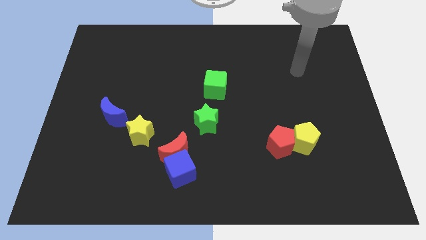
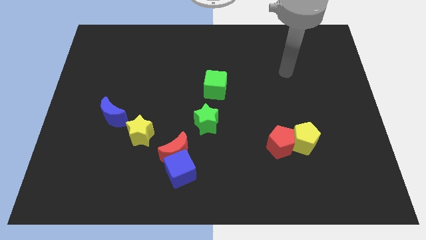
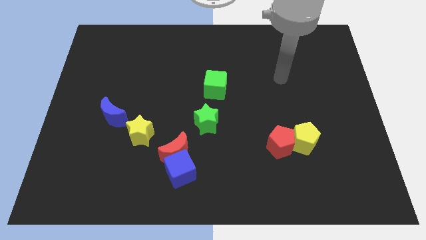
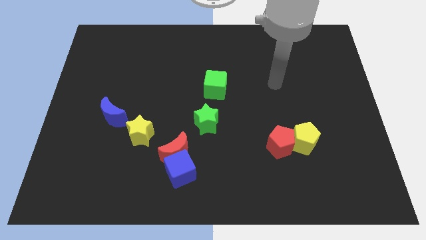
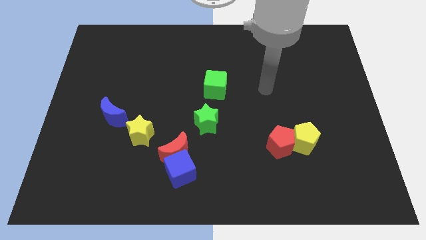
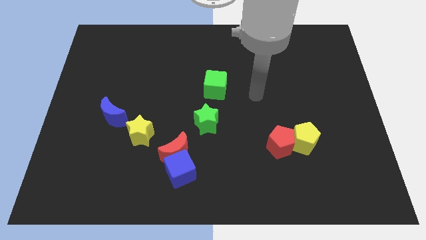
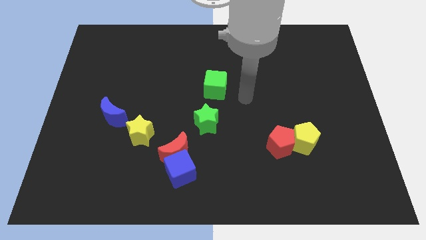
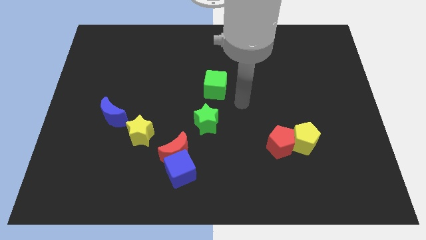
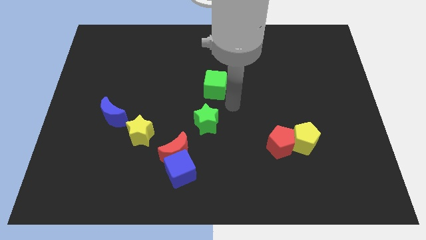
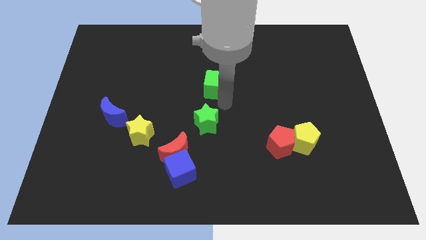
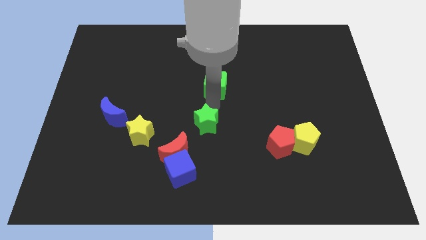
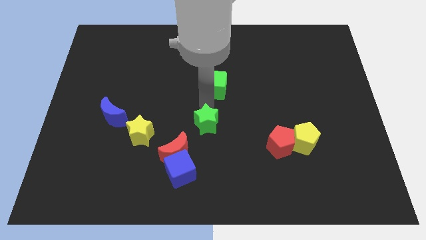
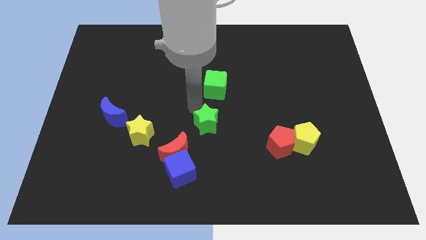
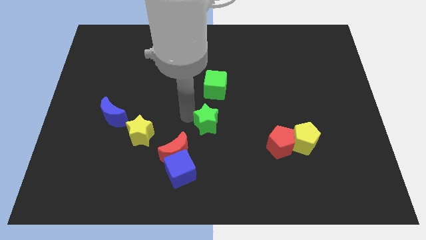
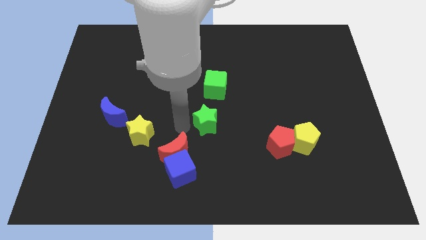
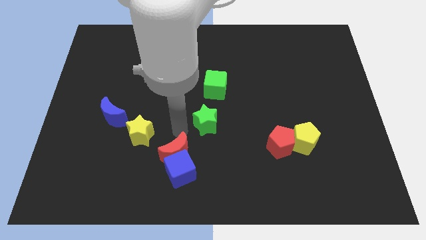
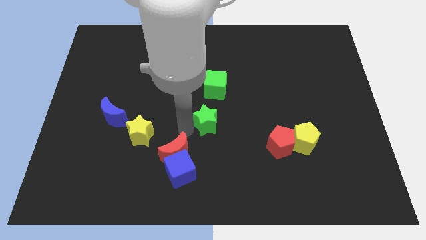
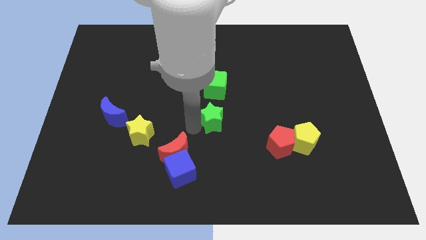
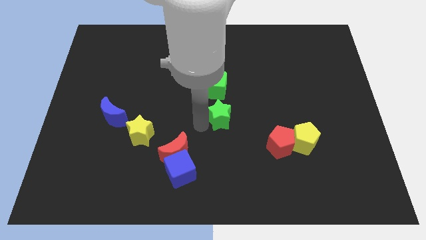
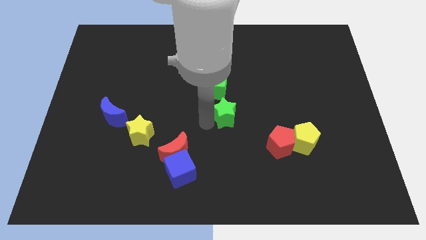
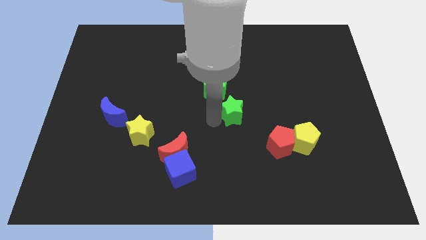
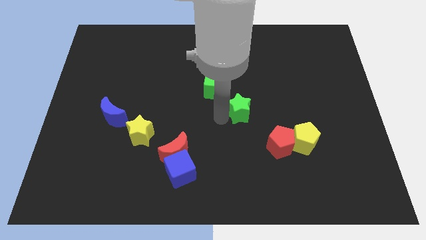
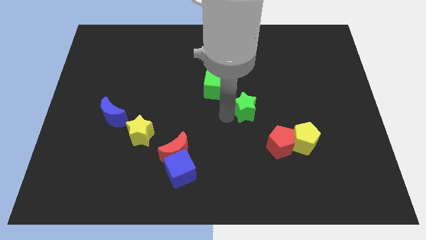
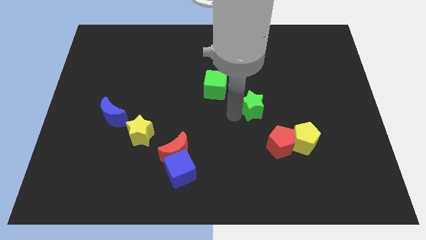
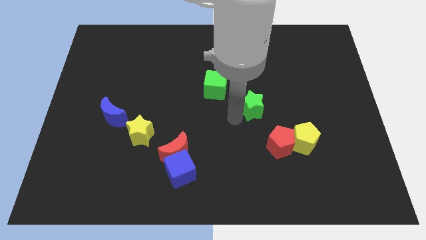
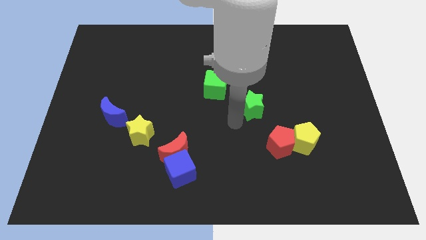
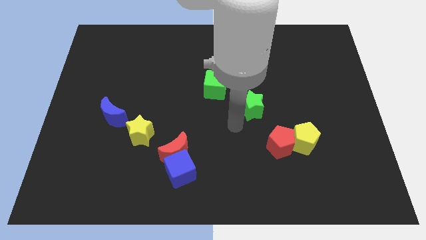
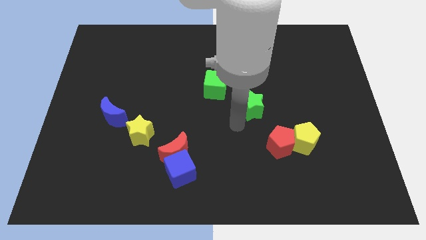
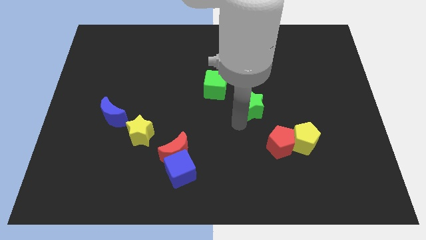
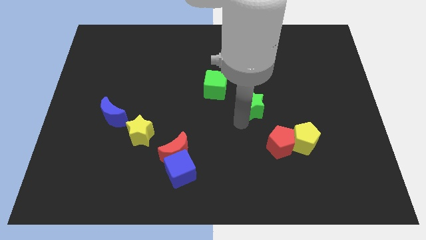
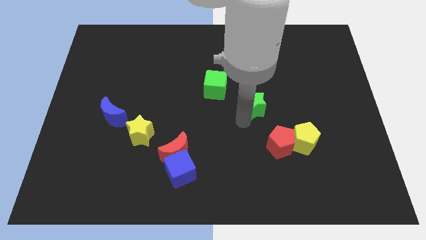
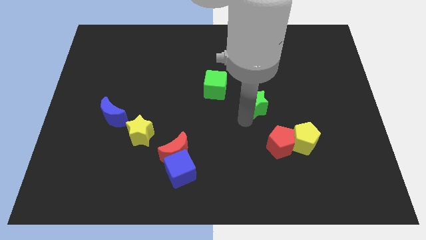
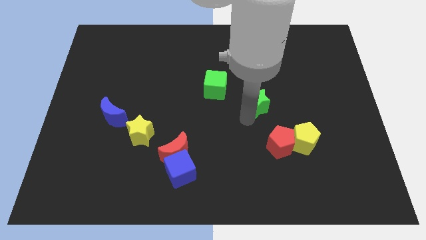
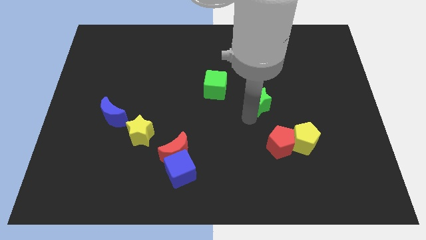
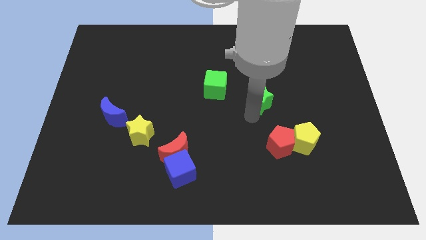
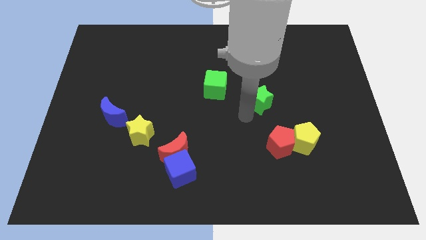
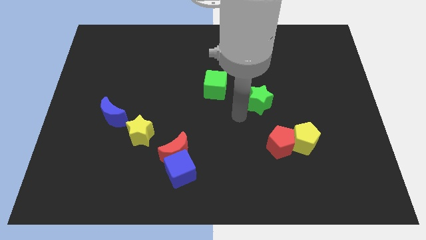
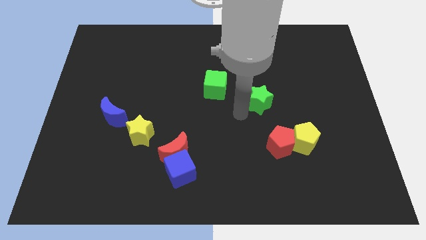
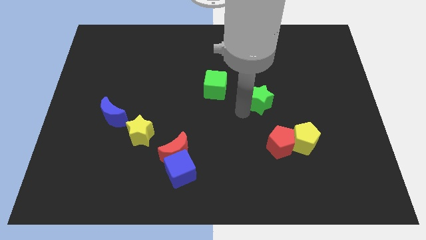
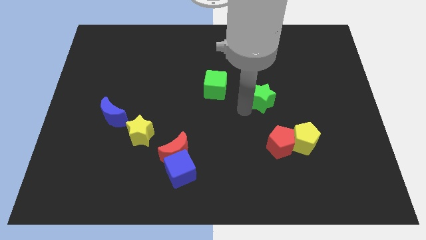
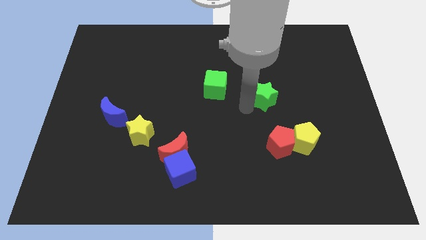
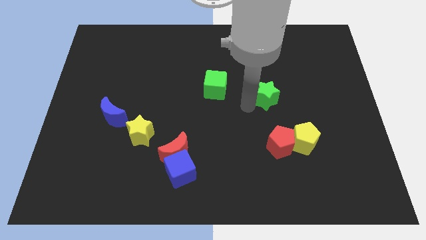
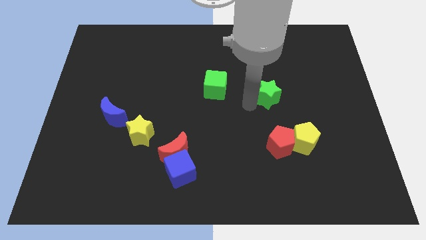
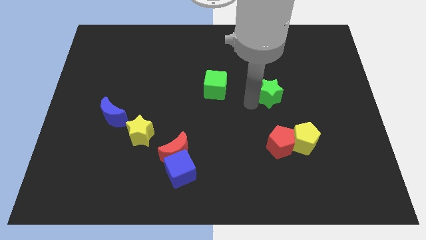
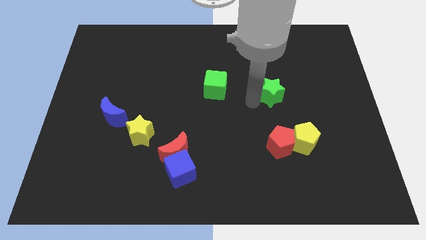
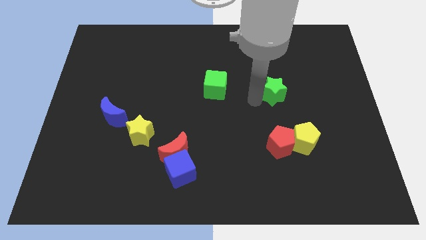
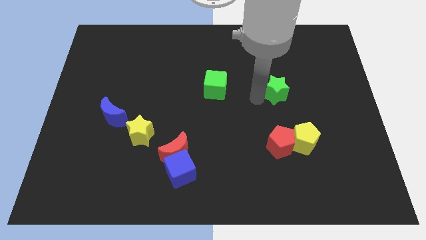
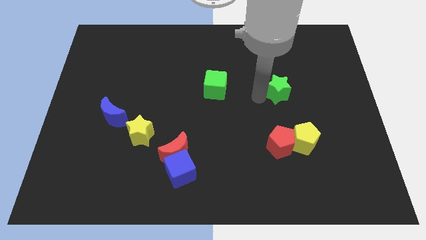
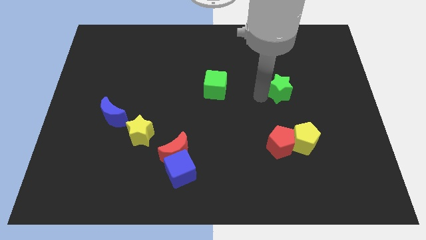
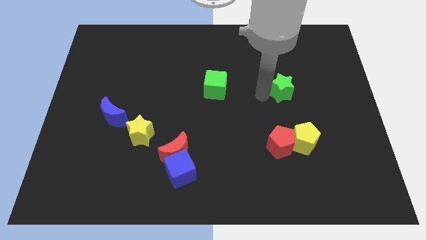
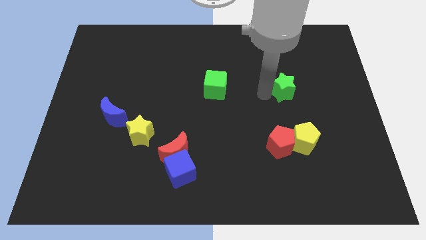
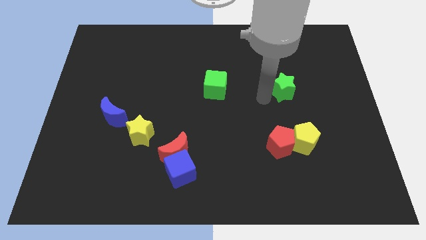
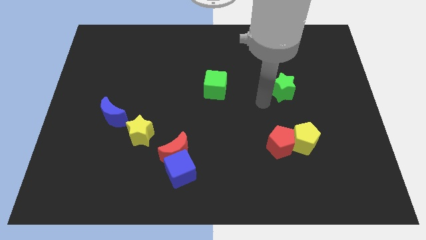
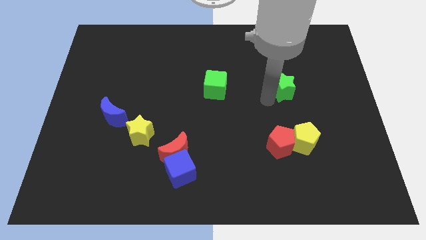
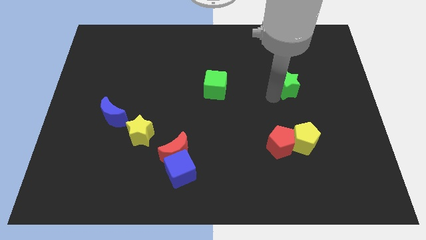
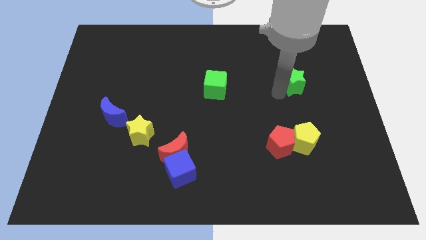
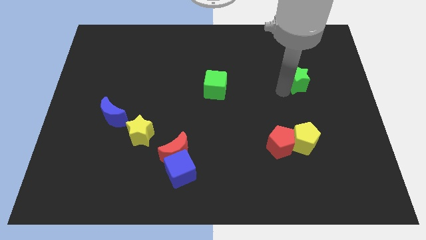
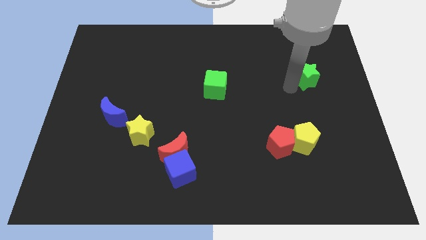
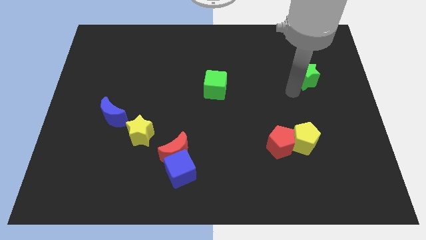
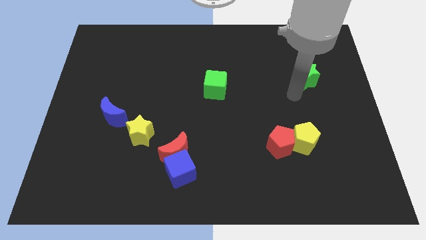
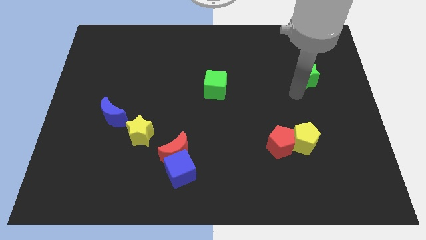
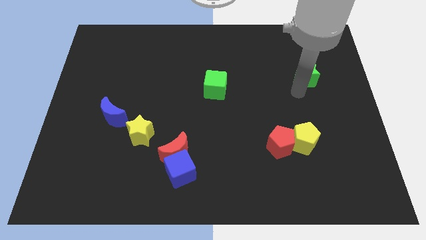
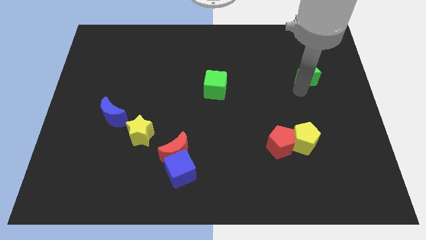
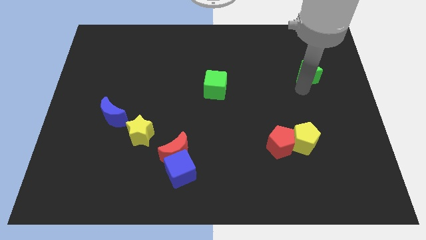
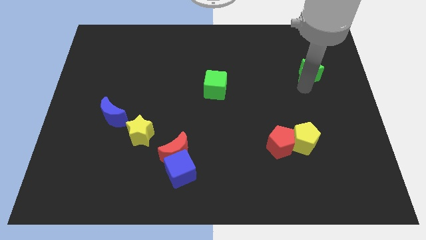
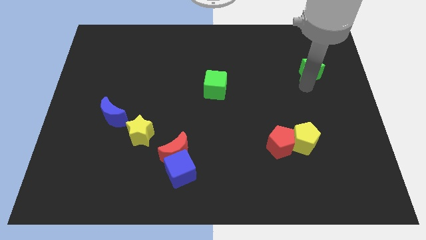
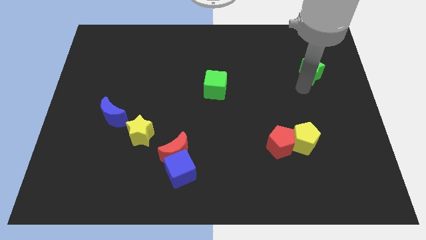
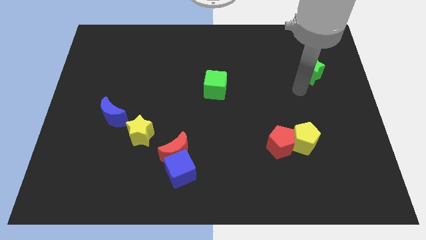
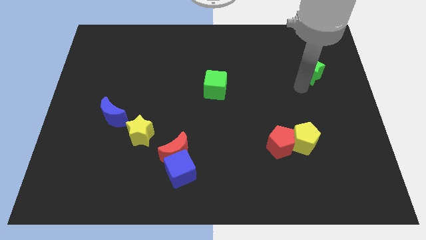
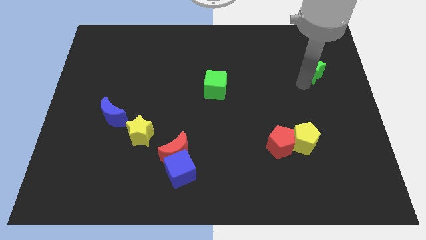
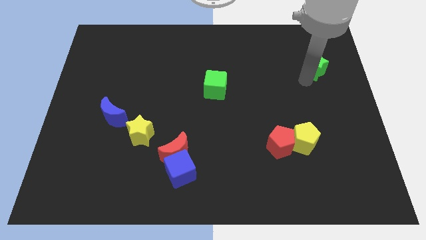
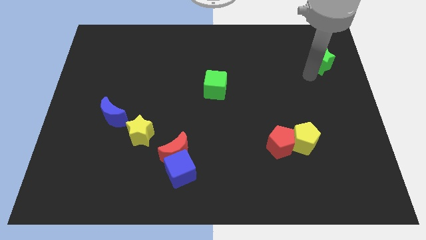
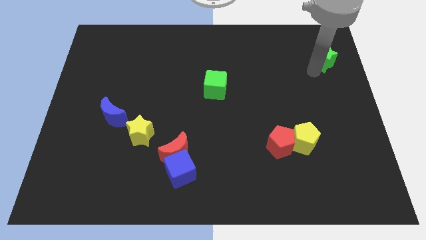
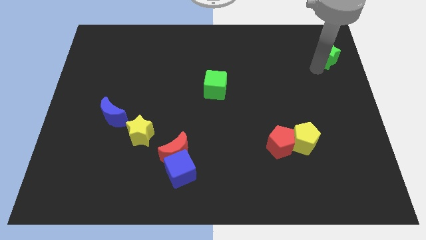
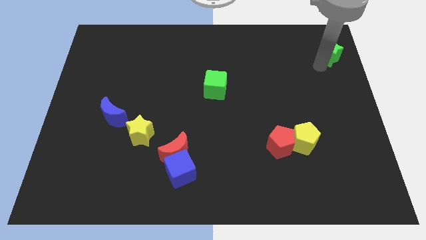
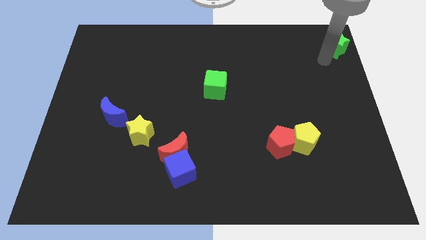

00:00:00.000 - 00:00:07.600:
push the green star to the top right corner

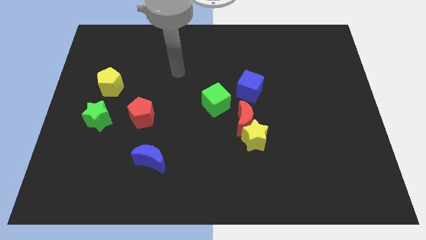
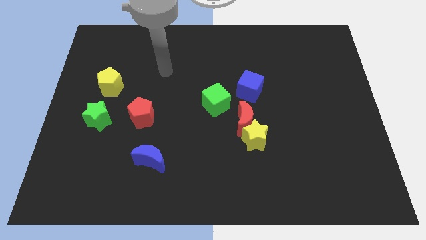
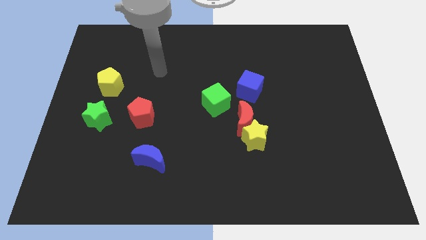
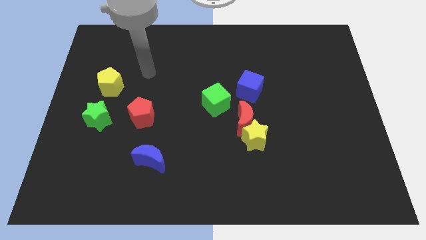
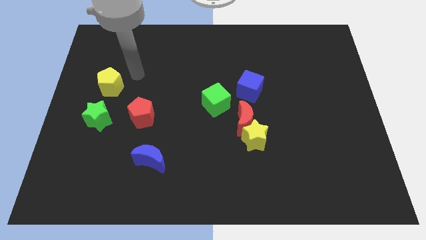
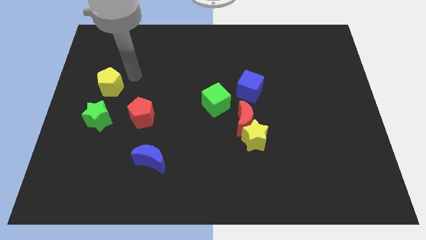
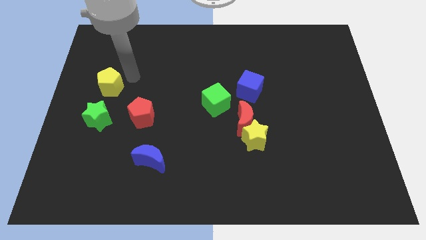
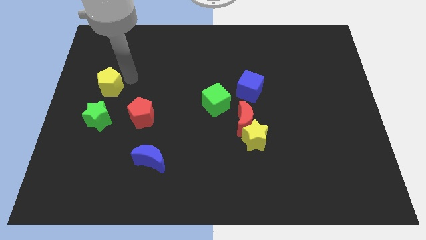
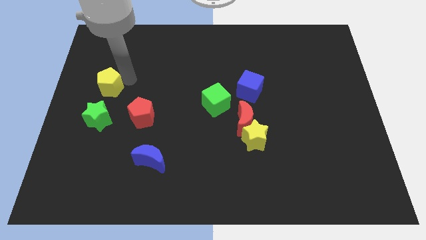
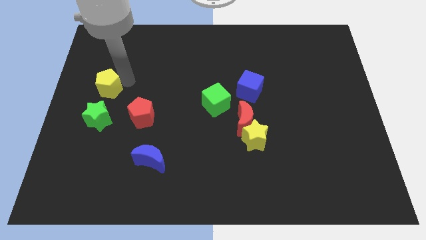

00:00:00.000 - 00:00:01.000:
slide the yellow pentagon to the left side of the board
